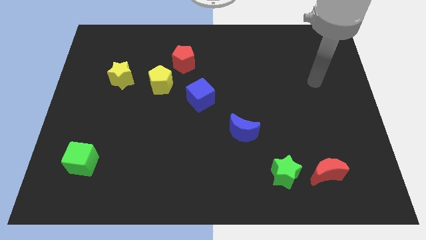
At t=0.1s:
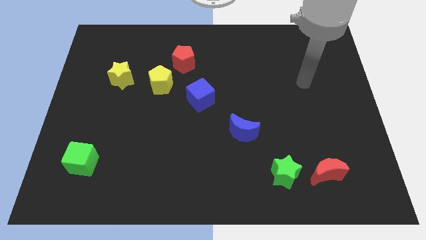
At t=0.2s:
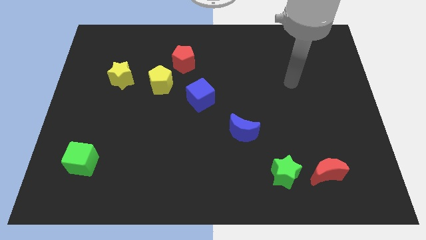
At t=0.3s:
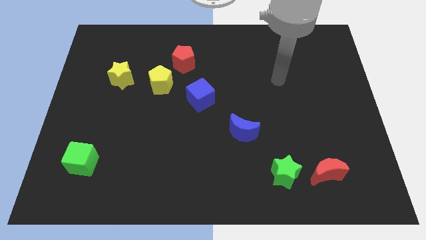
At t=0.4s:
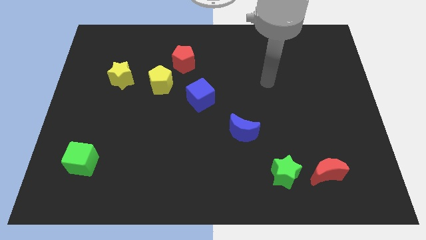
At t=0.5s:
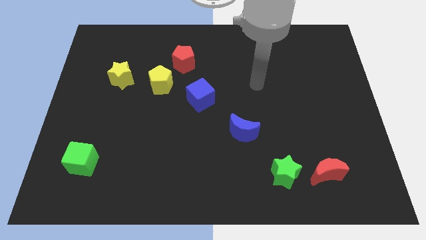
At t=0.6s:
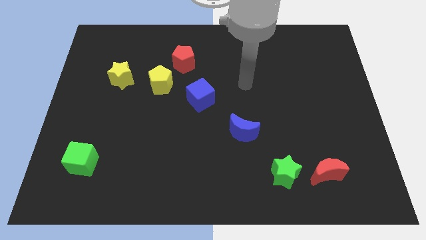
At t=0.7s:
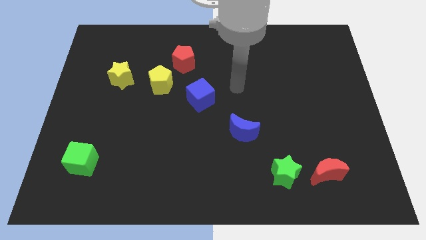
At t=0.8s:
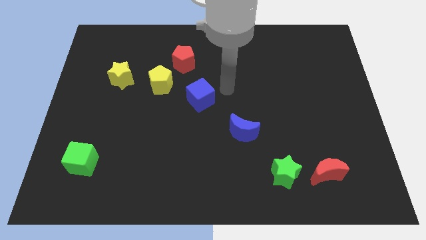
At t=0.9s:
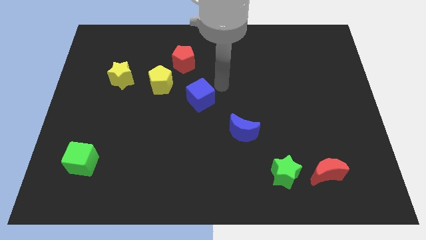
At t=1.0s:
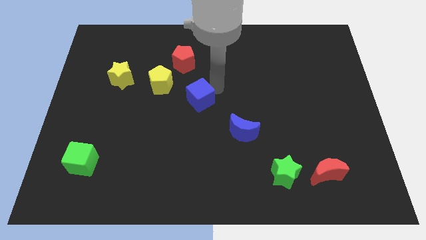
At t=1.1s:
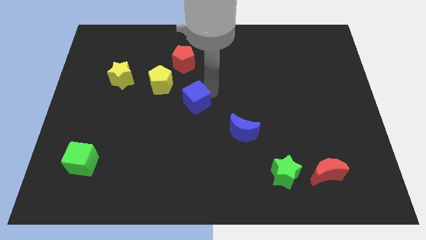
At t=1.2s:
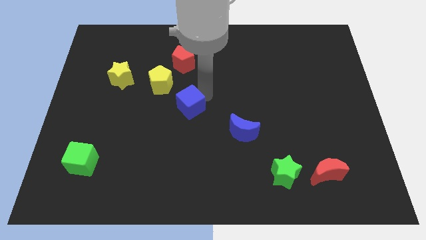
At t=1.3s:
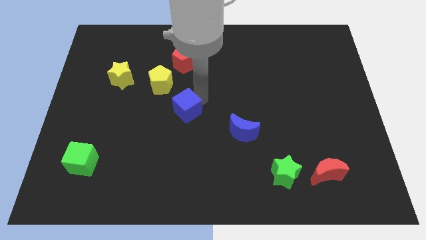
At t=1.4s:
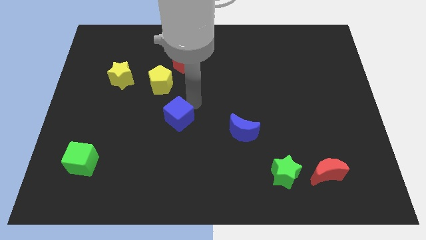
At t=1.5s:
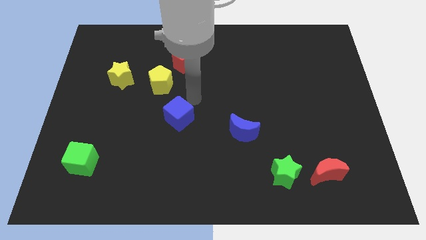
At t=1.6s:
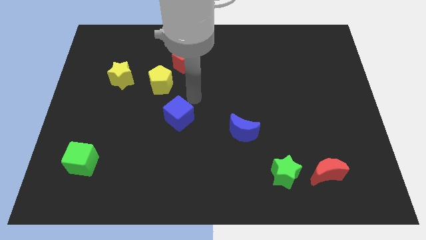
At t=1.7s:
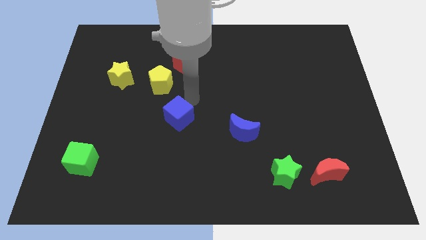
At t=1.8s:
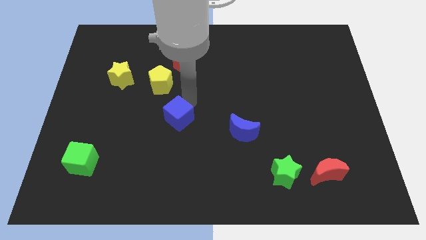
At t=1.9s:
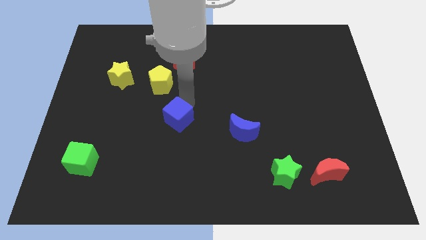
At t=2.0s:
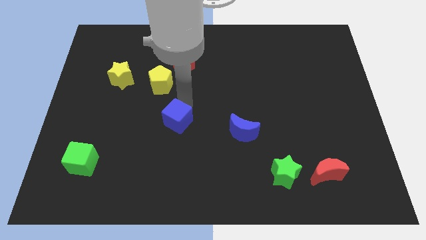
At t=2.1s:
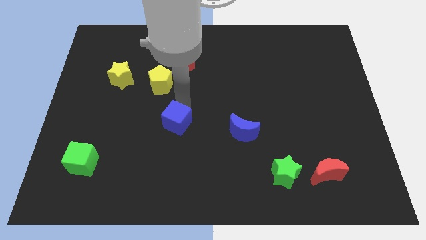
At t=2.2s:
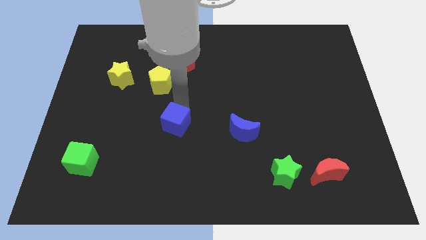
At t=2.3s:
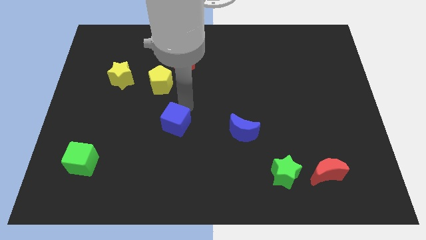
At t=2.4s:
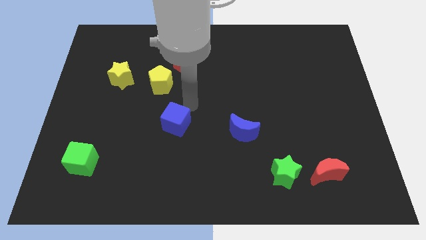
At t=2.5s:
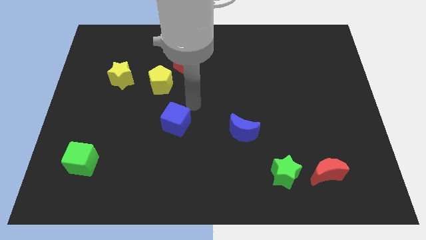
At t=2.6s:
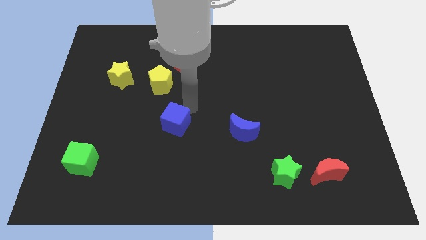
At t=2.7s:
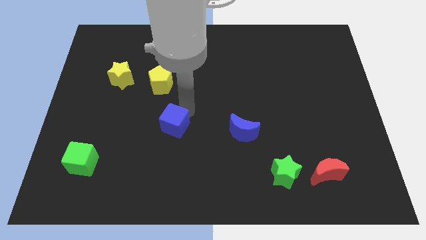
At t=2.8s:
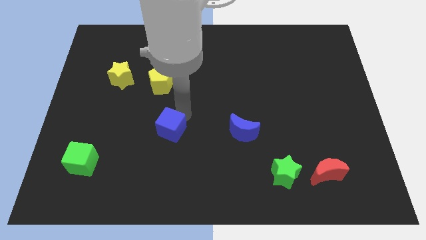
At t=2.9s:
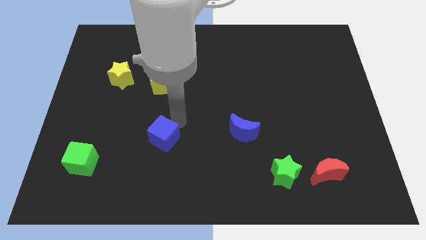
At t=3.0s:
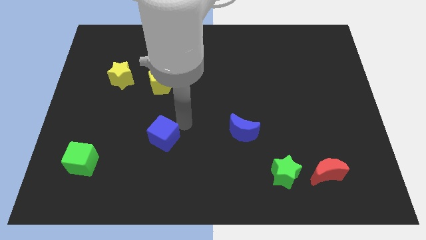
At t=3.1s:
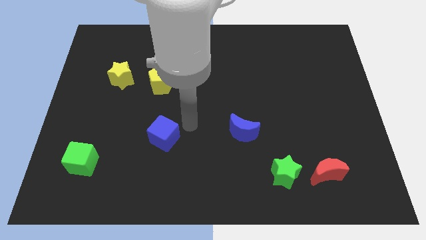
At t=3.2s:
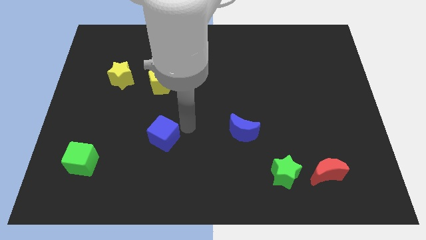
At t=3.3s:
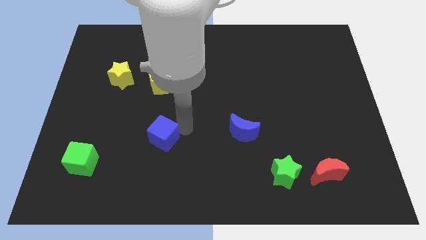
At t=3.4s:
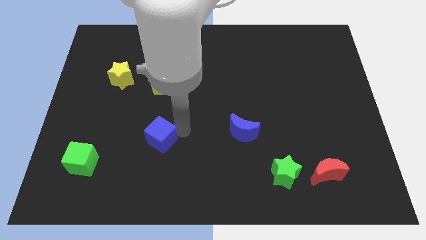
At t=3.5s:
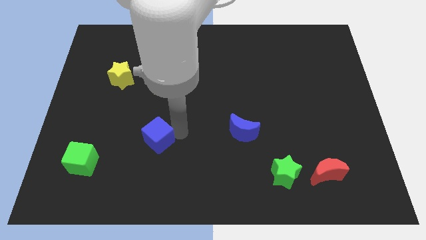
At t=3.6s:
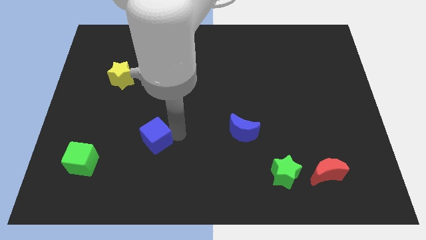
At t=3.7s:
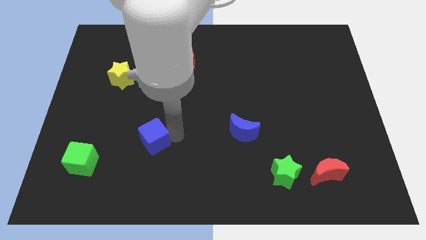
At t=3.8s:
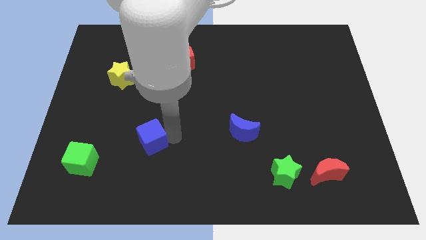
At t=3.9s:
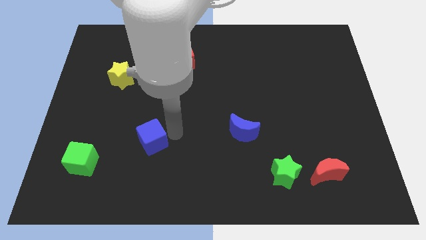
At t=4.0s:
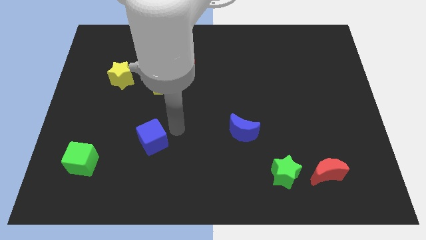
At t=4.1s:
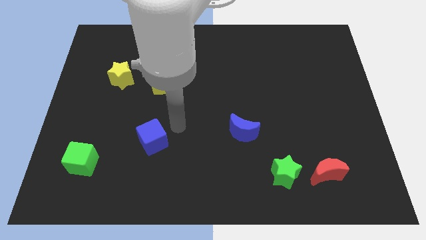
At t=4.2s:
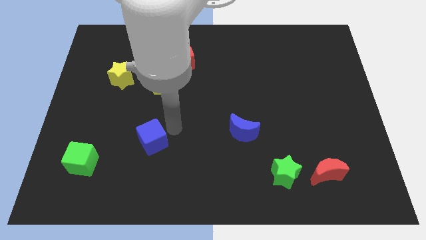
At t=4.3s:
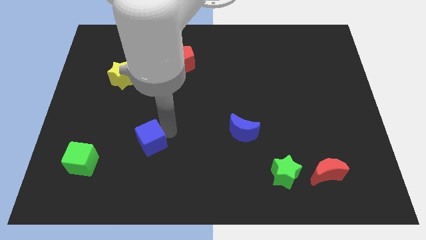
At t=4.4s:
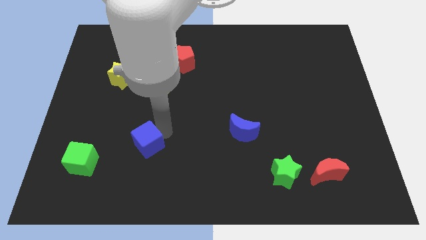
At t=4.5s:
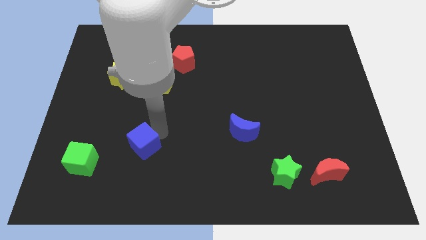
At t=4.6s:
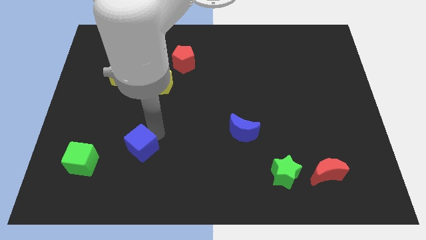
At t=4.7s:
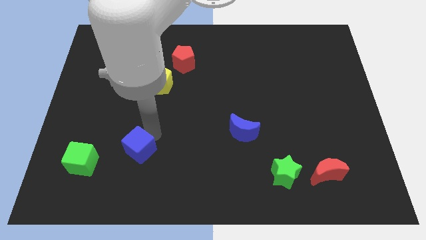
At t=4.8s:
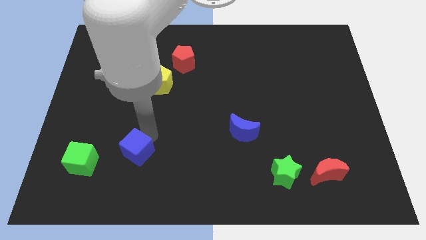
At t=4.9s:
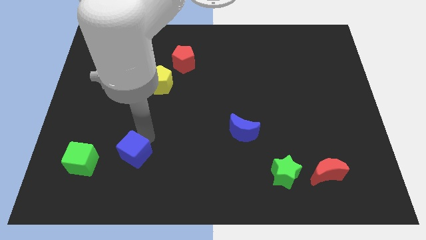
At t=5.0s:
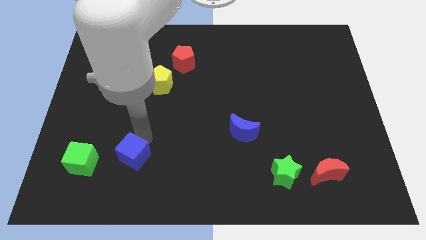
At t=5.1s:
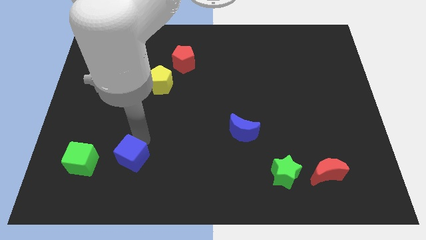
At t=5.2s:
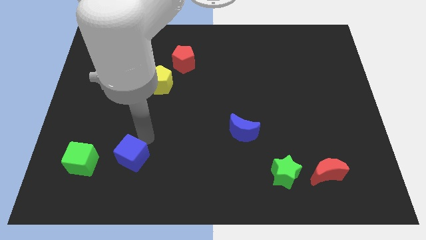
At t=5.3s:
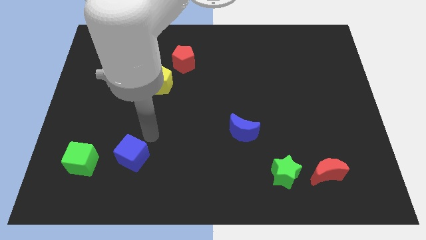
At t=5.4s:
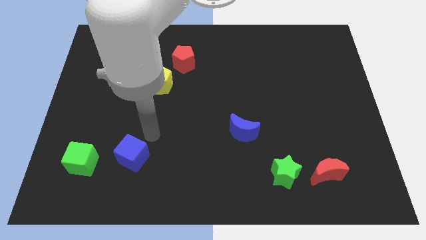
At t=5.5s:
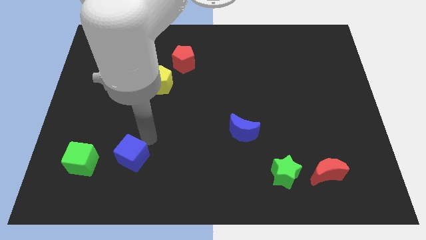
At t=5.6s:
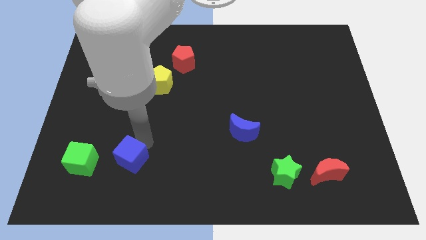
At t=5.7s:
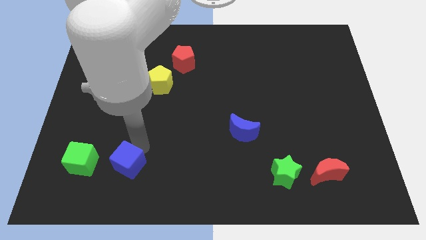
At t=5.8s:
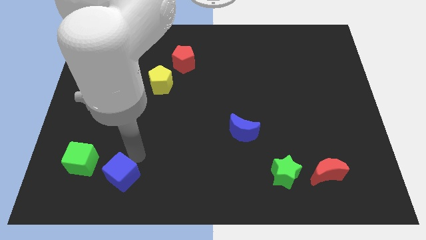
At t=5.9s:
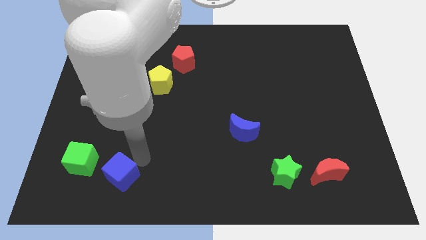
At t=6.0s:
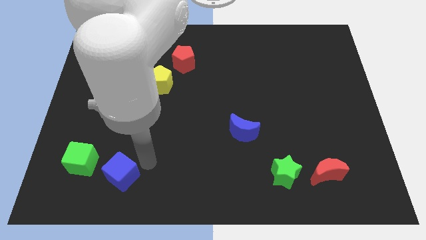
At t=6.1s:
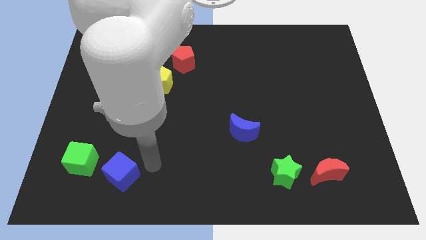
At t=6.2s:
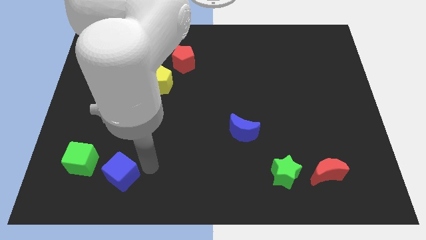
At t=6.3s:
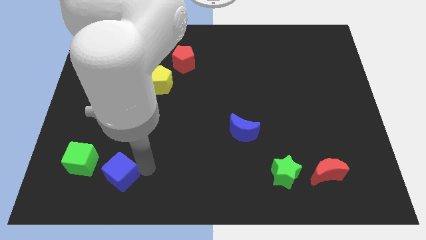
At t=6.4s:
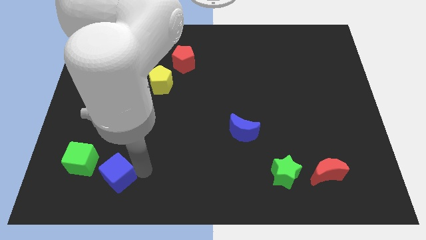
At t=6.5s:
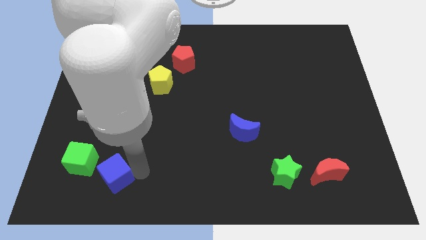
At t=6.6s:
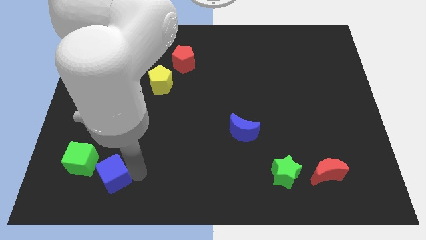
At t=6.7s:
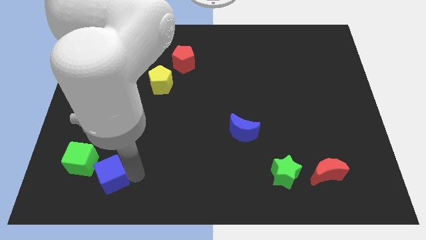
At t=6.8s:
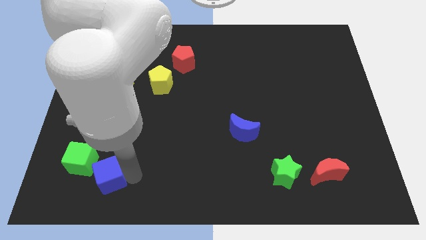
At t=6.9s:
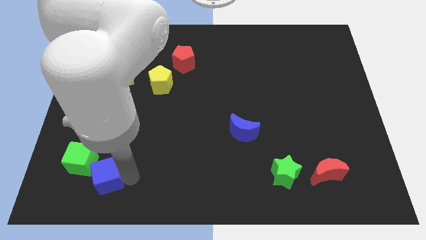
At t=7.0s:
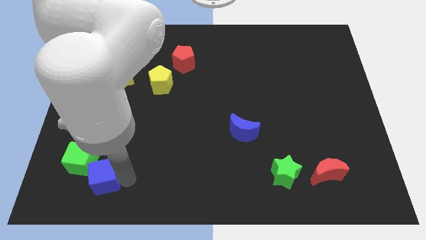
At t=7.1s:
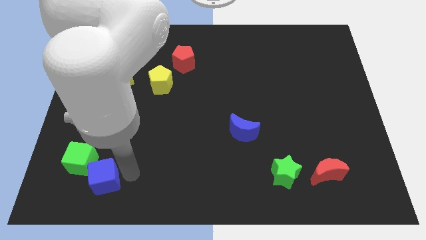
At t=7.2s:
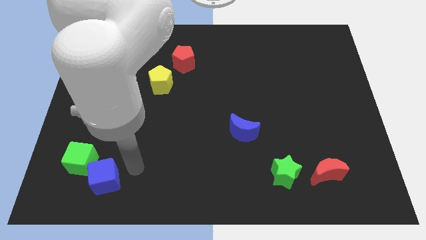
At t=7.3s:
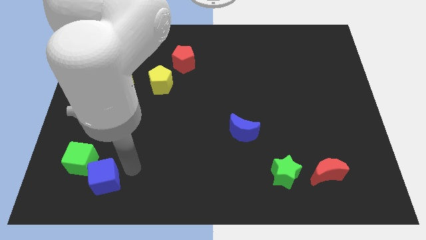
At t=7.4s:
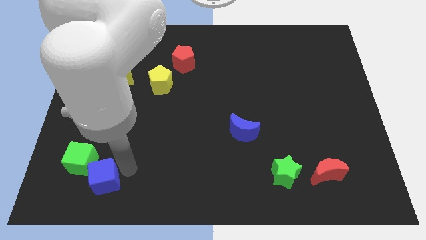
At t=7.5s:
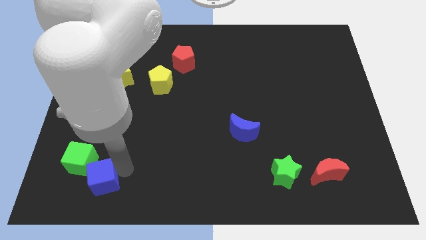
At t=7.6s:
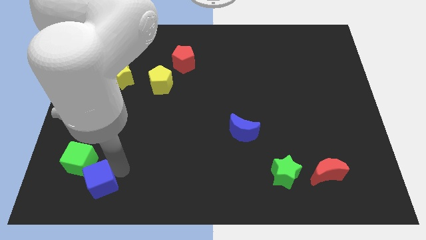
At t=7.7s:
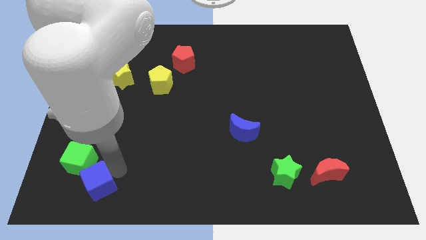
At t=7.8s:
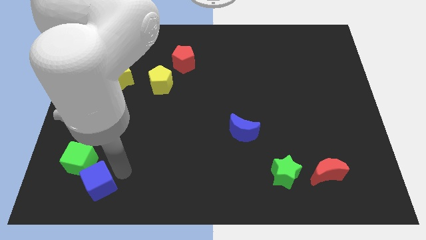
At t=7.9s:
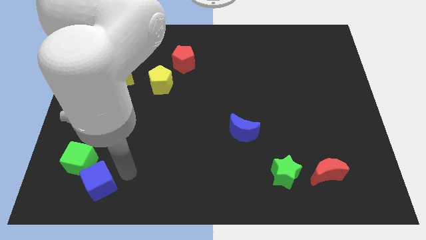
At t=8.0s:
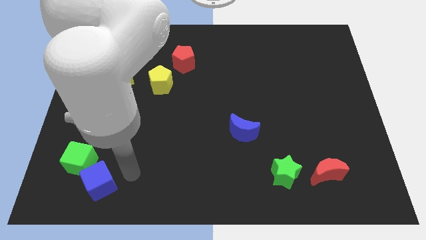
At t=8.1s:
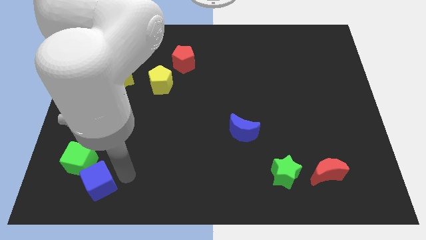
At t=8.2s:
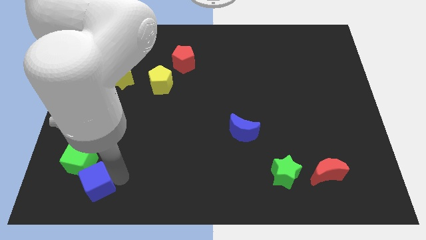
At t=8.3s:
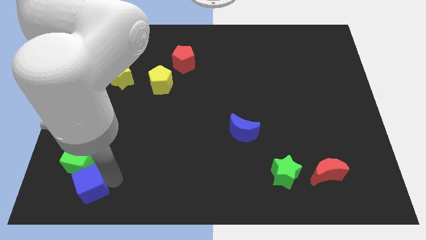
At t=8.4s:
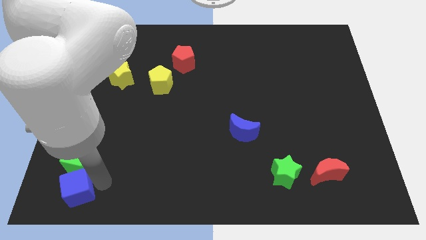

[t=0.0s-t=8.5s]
push the blue cube to the bottom left
